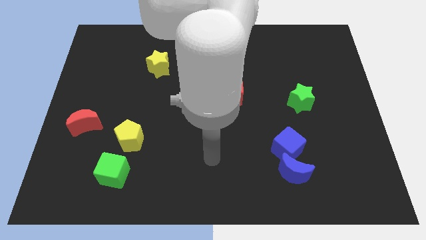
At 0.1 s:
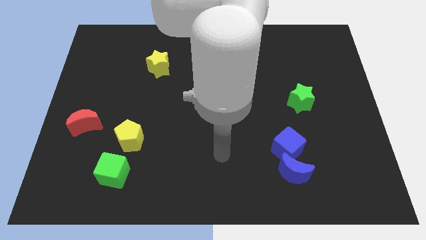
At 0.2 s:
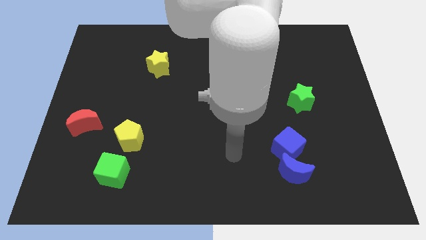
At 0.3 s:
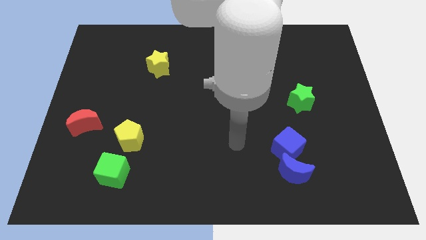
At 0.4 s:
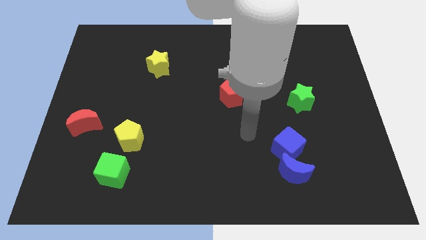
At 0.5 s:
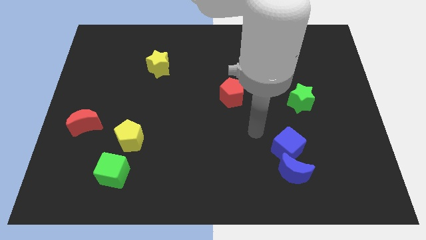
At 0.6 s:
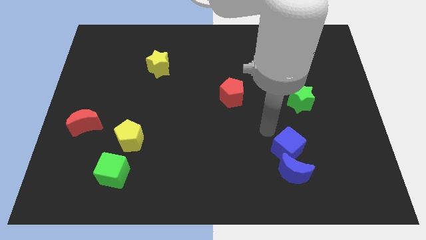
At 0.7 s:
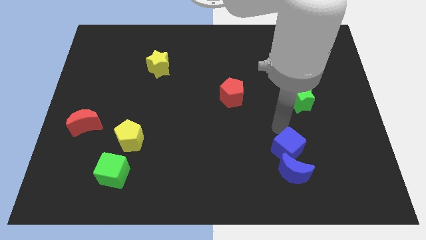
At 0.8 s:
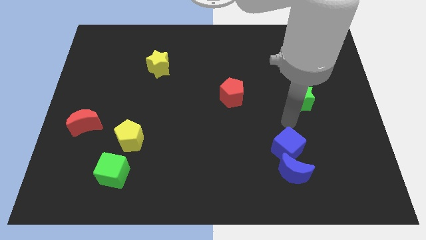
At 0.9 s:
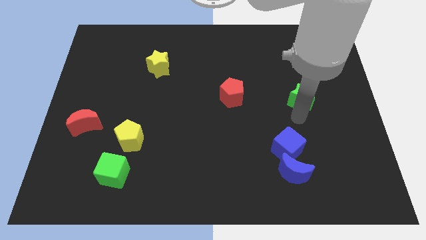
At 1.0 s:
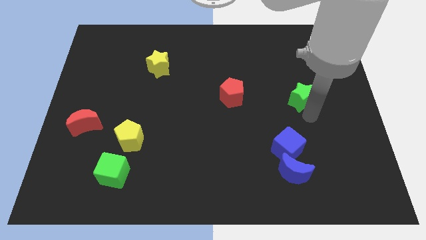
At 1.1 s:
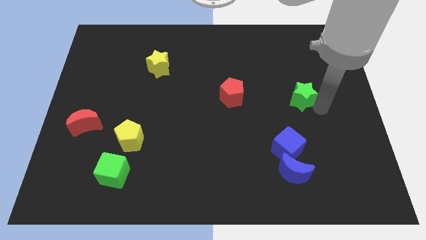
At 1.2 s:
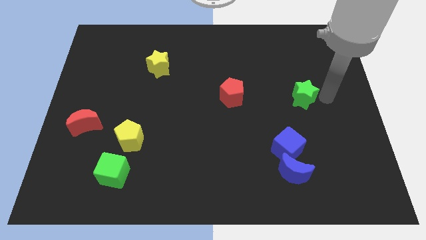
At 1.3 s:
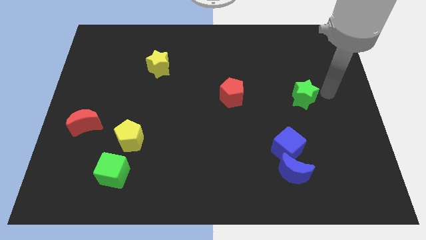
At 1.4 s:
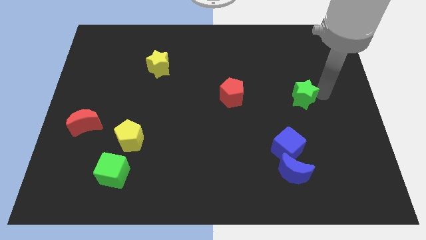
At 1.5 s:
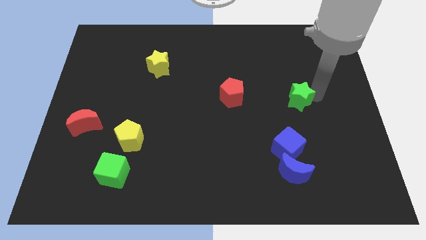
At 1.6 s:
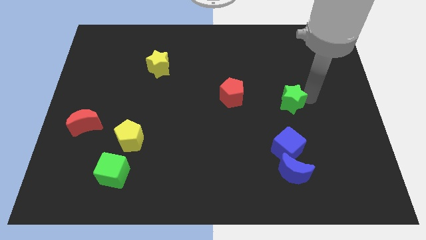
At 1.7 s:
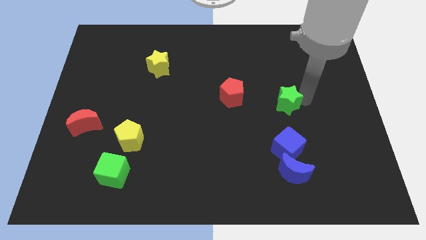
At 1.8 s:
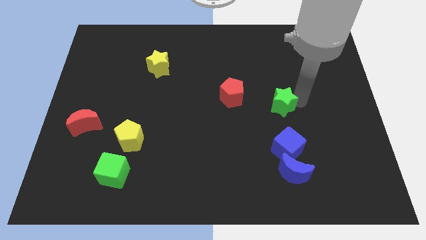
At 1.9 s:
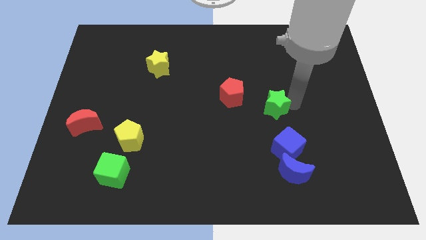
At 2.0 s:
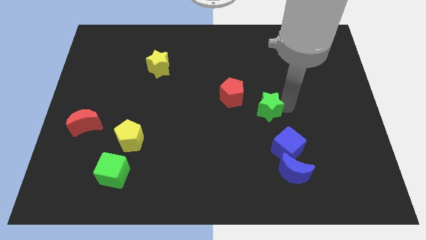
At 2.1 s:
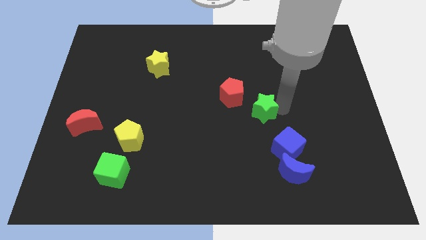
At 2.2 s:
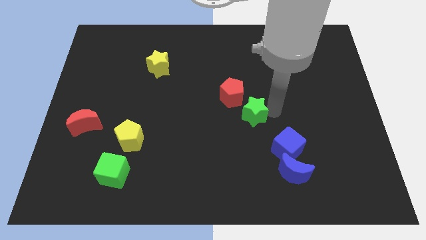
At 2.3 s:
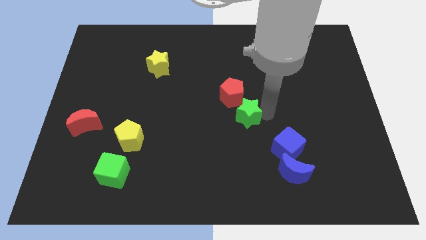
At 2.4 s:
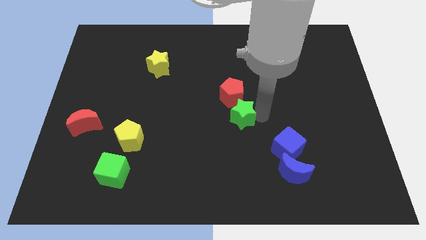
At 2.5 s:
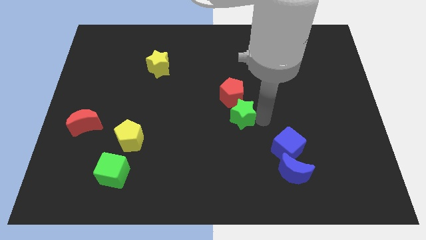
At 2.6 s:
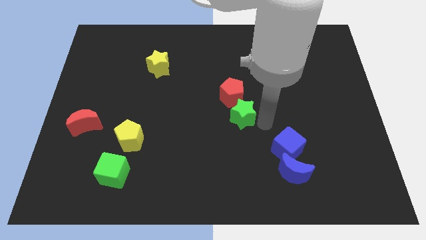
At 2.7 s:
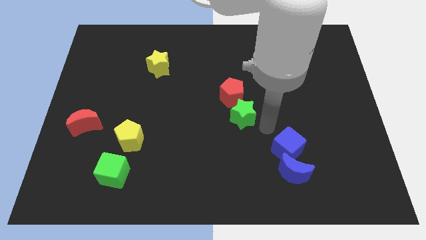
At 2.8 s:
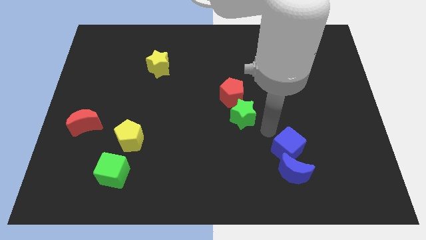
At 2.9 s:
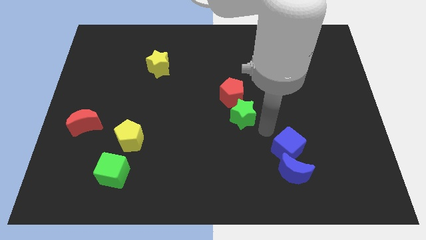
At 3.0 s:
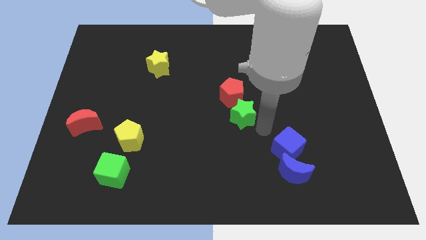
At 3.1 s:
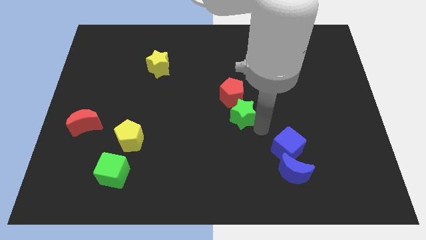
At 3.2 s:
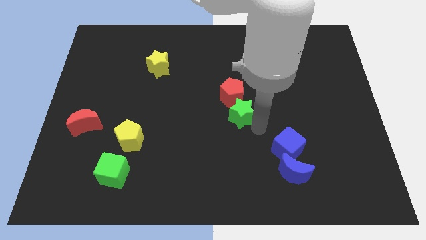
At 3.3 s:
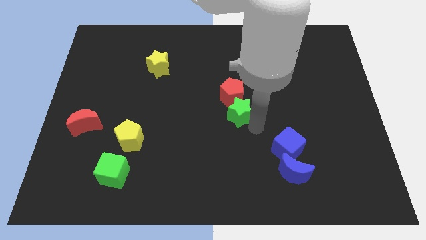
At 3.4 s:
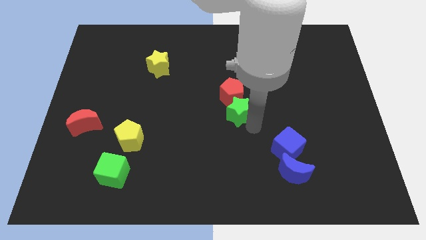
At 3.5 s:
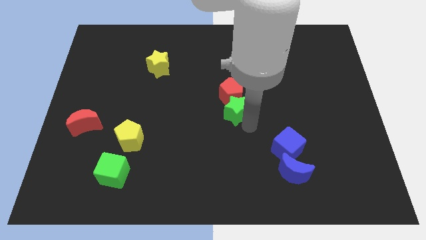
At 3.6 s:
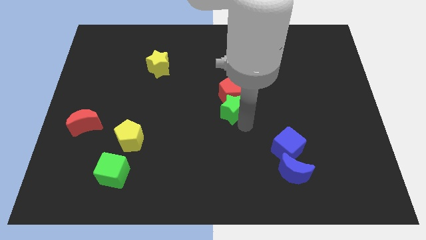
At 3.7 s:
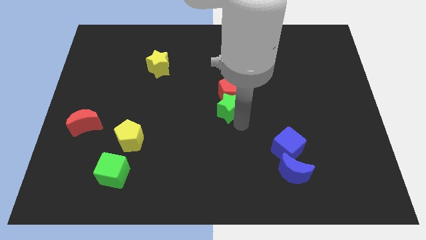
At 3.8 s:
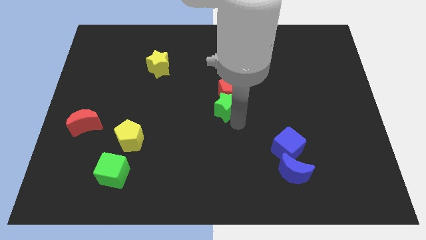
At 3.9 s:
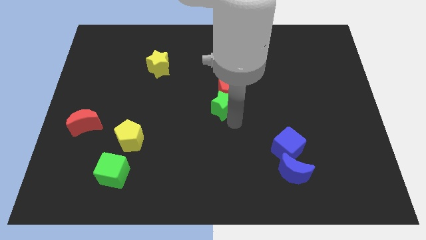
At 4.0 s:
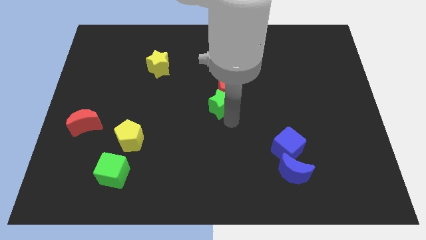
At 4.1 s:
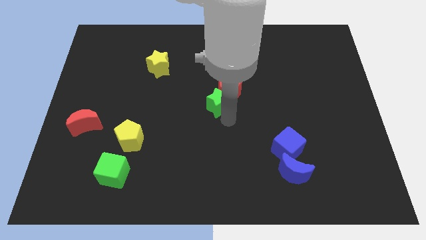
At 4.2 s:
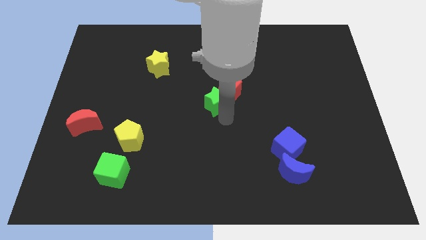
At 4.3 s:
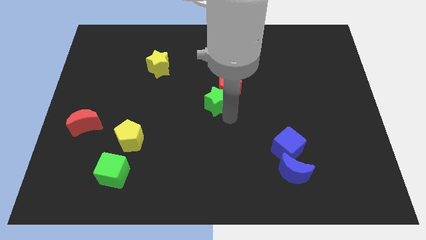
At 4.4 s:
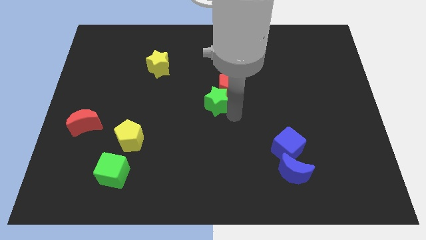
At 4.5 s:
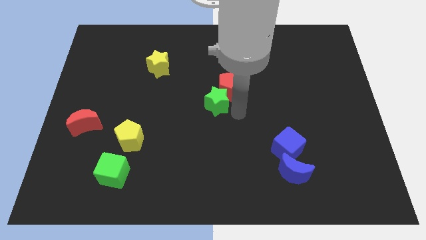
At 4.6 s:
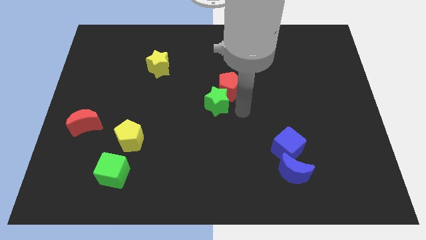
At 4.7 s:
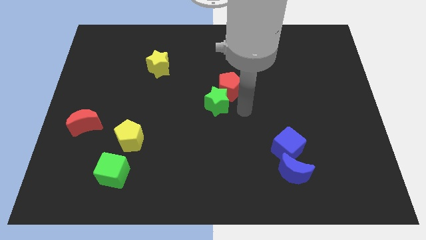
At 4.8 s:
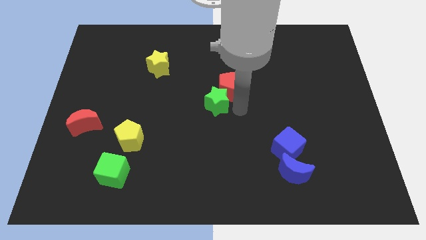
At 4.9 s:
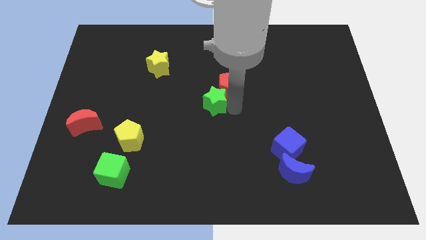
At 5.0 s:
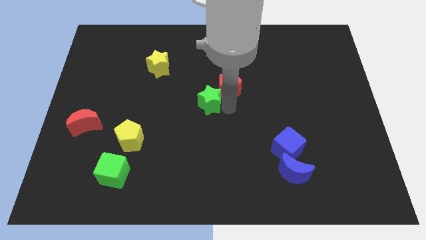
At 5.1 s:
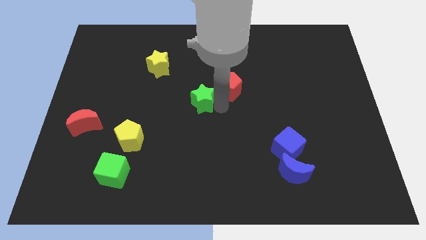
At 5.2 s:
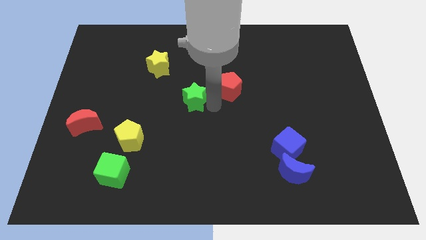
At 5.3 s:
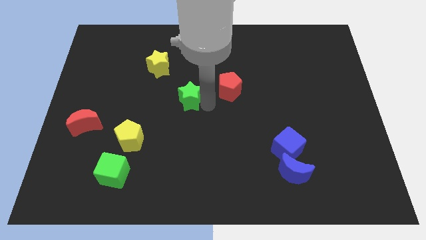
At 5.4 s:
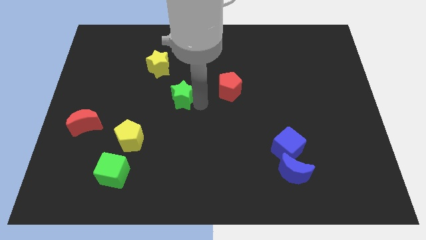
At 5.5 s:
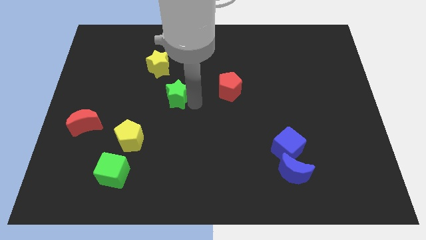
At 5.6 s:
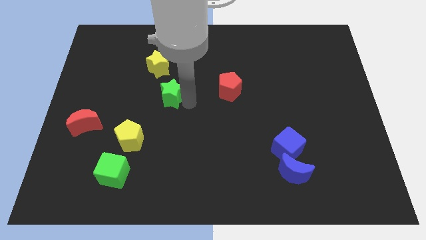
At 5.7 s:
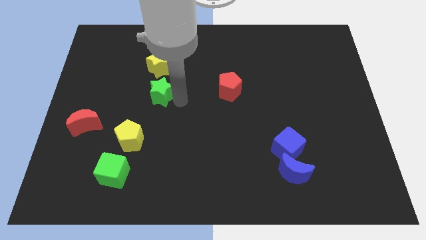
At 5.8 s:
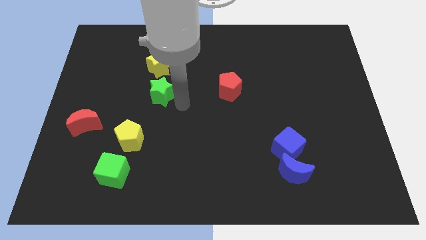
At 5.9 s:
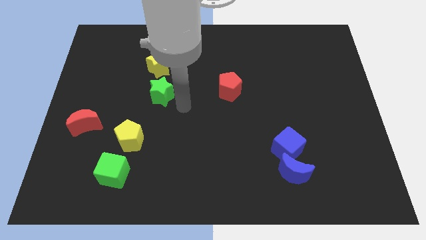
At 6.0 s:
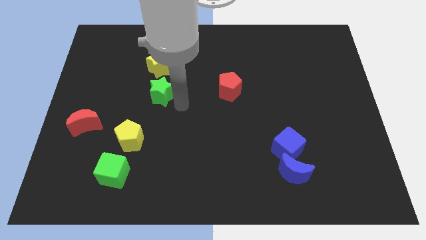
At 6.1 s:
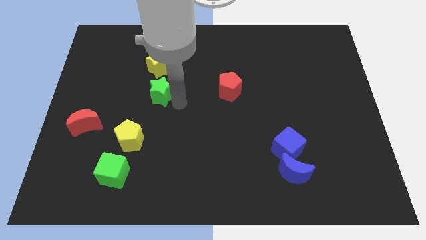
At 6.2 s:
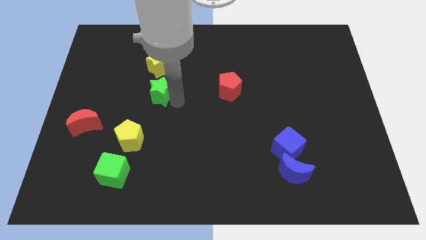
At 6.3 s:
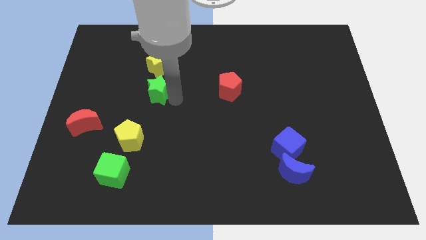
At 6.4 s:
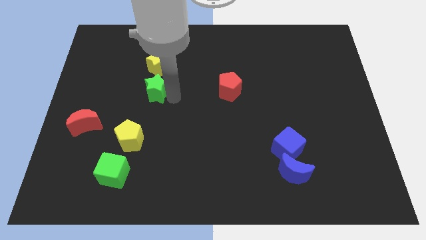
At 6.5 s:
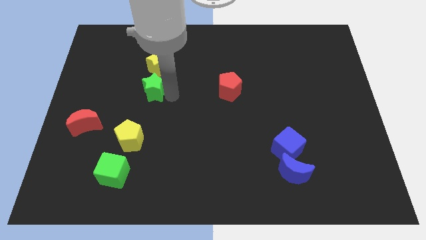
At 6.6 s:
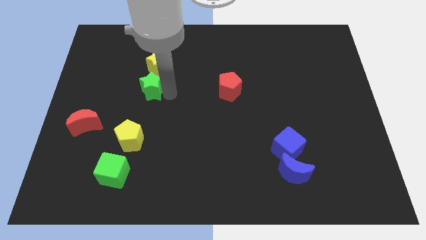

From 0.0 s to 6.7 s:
push the green star diagonally down and to the left of the yellow star

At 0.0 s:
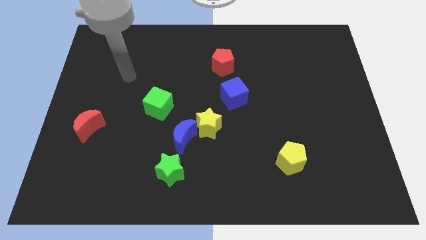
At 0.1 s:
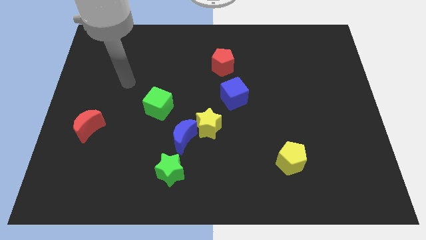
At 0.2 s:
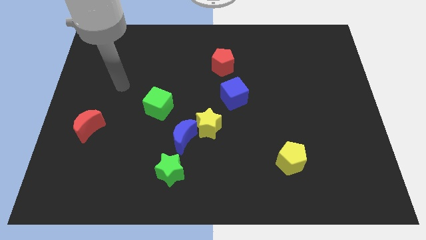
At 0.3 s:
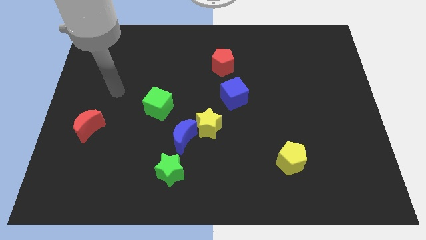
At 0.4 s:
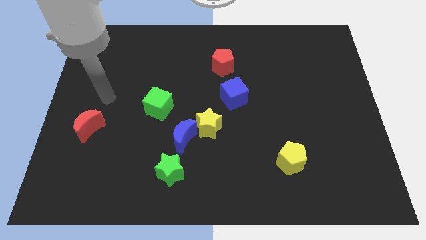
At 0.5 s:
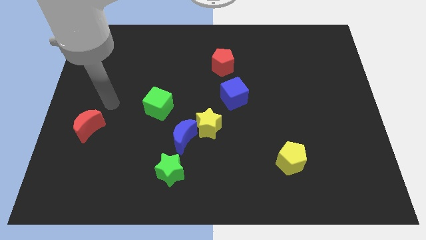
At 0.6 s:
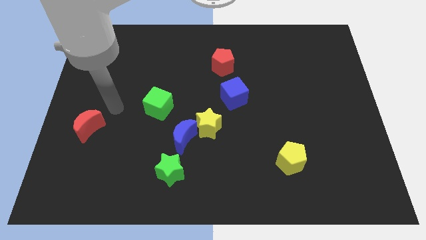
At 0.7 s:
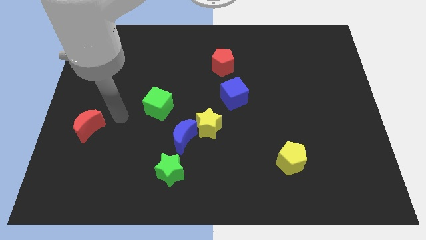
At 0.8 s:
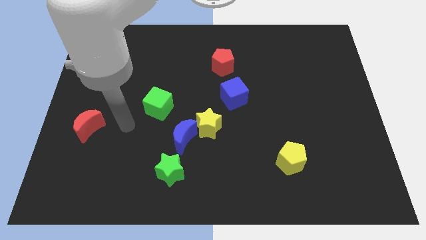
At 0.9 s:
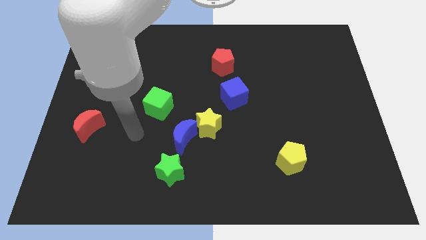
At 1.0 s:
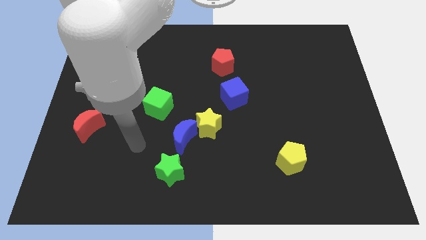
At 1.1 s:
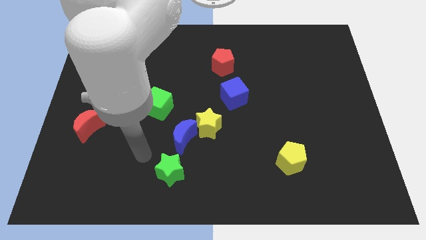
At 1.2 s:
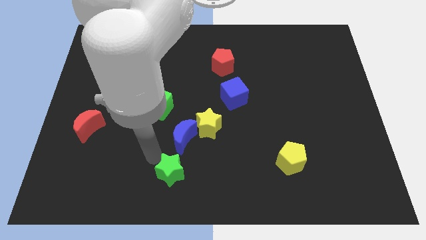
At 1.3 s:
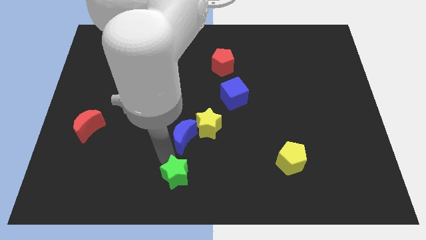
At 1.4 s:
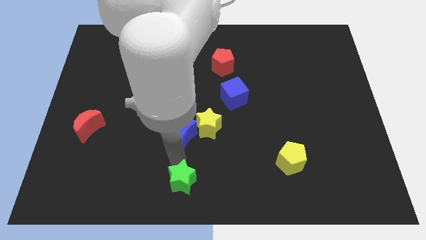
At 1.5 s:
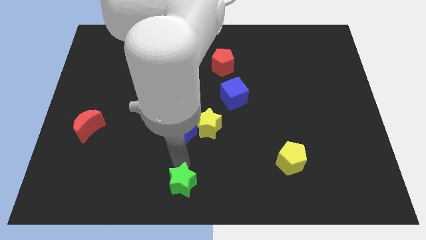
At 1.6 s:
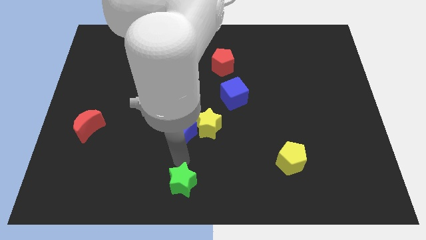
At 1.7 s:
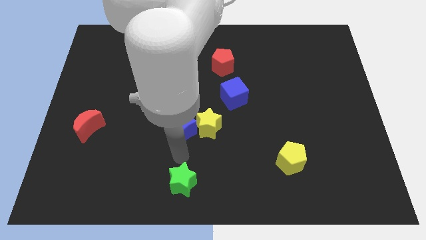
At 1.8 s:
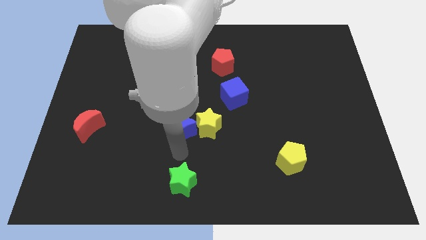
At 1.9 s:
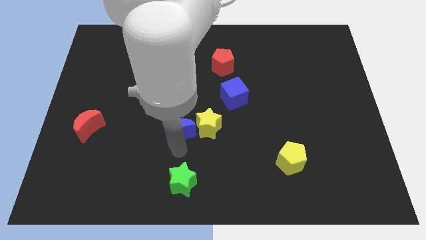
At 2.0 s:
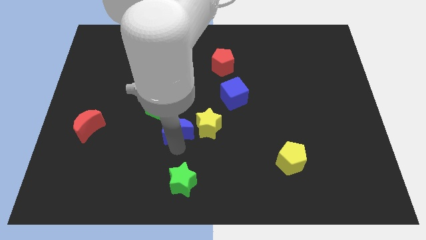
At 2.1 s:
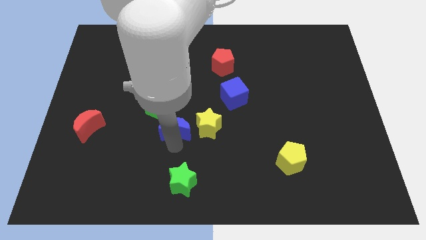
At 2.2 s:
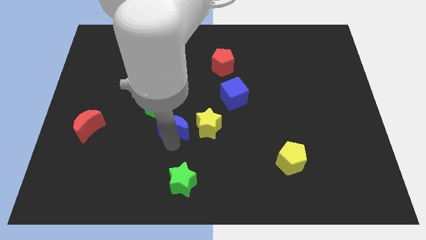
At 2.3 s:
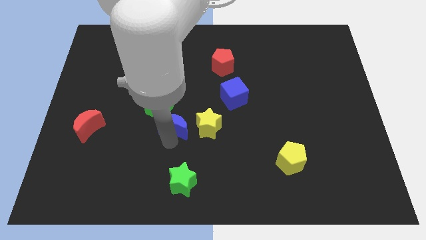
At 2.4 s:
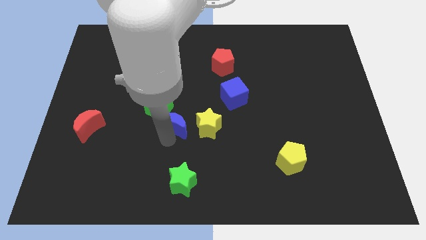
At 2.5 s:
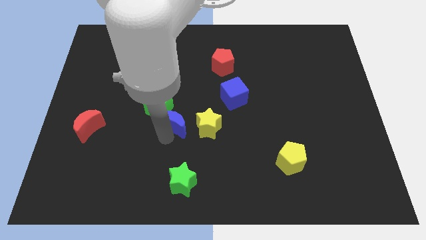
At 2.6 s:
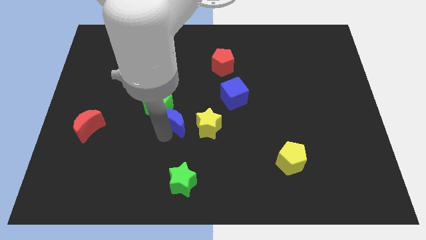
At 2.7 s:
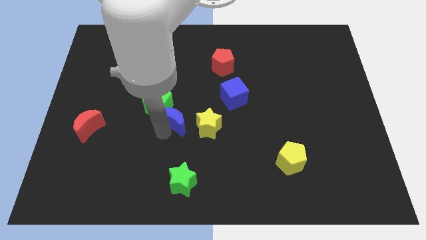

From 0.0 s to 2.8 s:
push the blue moon to the top left of the yellow star
